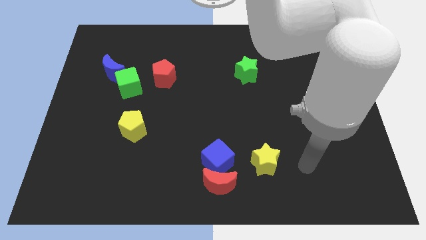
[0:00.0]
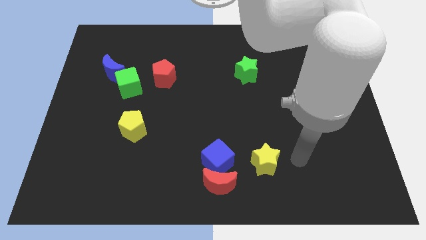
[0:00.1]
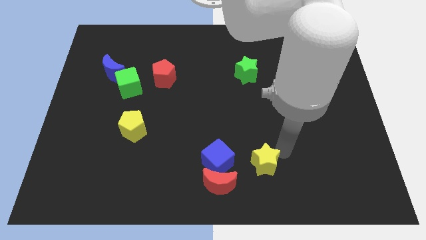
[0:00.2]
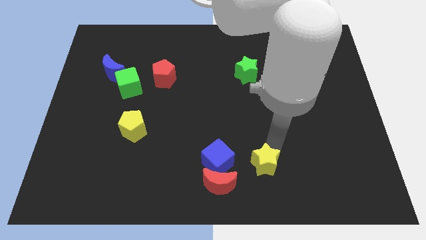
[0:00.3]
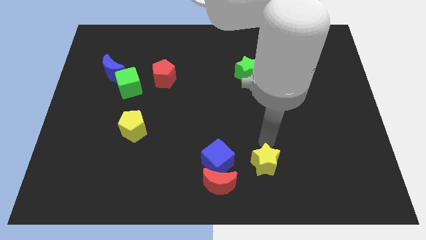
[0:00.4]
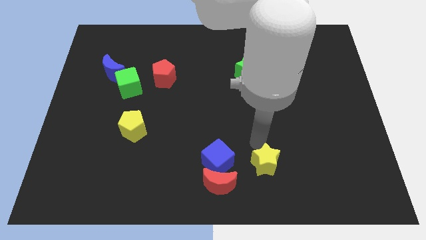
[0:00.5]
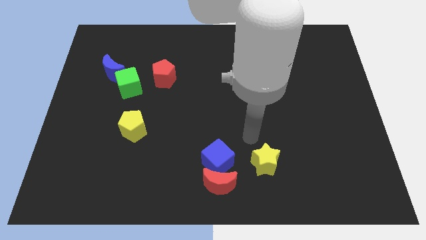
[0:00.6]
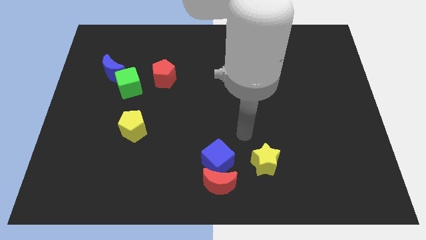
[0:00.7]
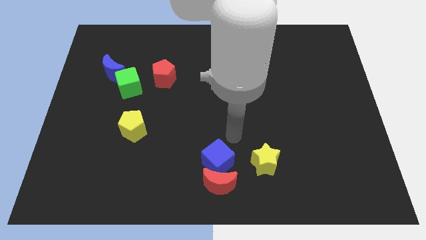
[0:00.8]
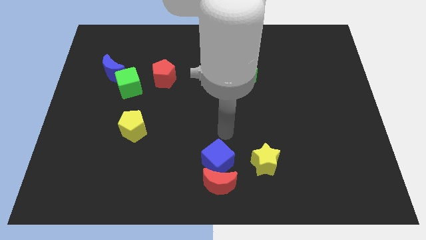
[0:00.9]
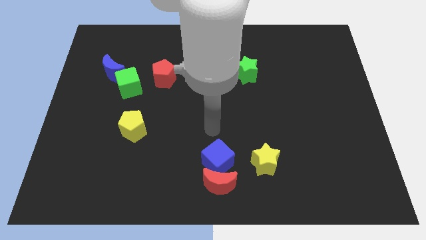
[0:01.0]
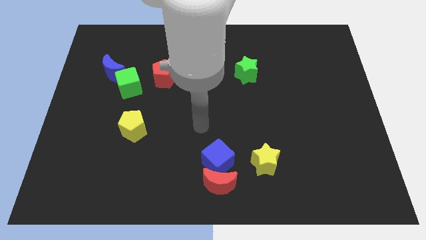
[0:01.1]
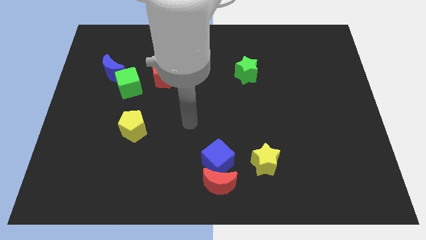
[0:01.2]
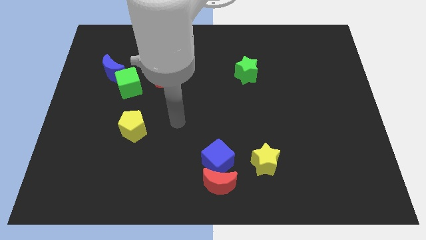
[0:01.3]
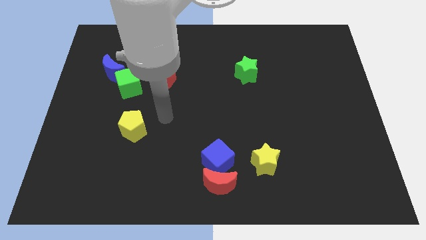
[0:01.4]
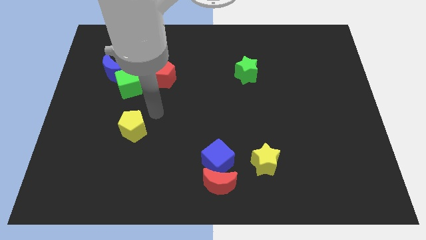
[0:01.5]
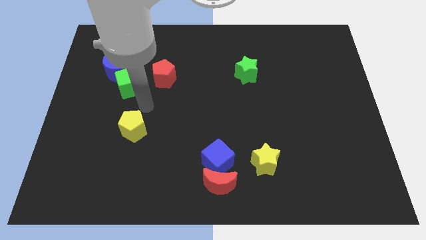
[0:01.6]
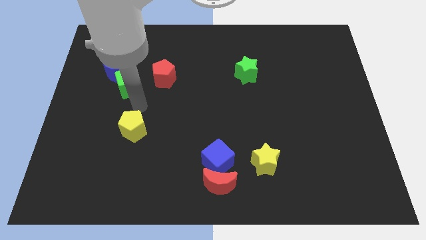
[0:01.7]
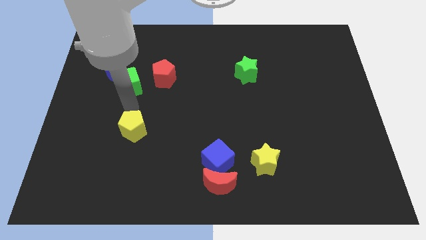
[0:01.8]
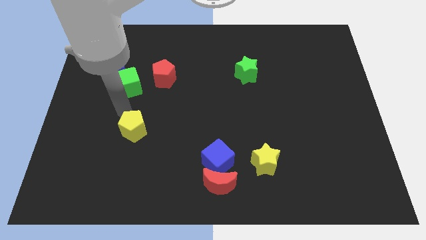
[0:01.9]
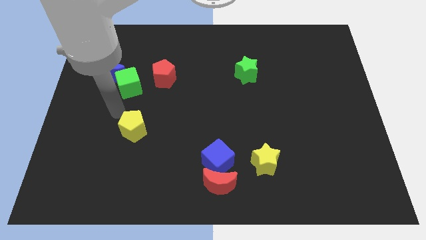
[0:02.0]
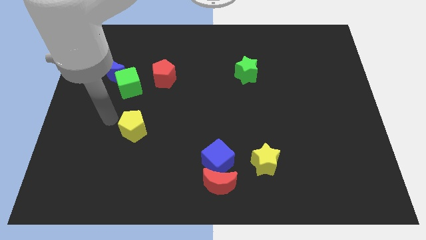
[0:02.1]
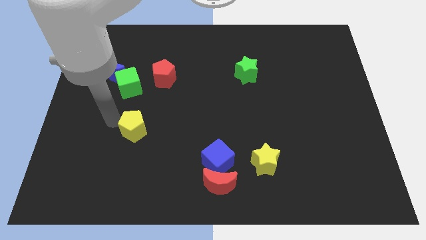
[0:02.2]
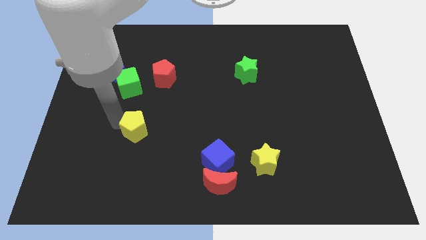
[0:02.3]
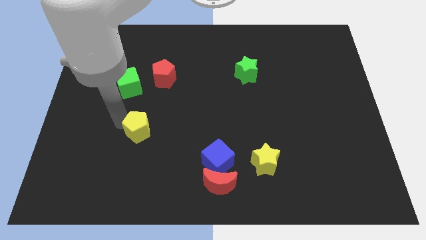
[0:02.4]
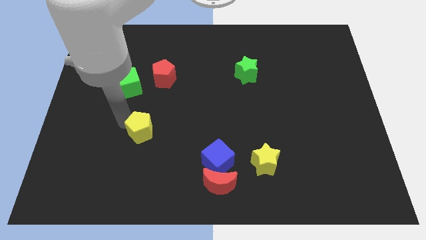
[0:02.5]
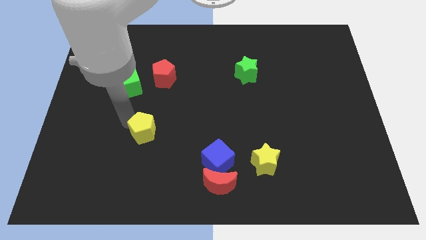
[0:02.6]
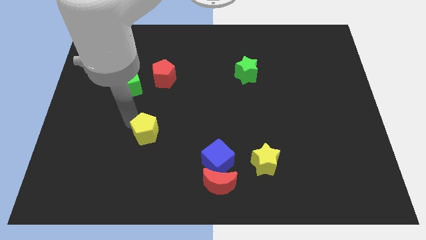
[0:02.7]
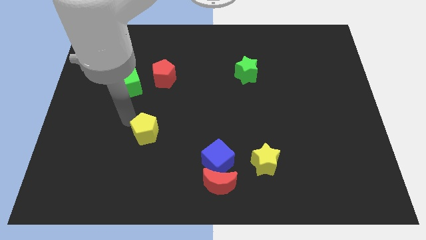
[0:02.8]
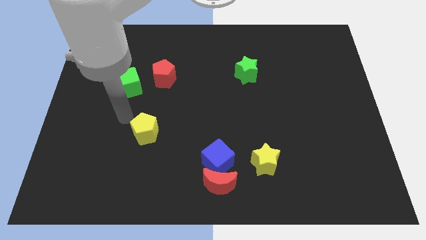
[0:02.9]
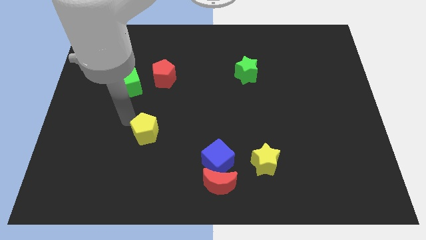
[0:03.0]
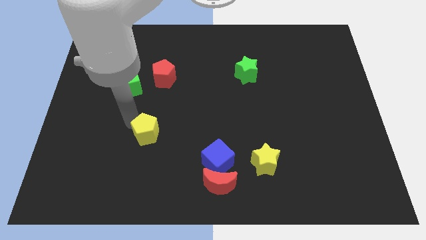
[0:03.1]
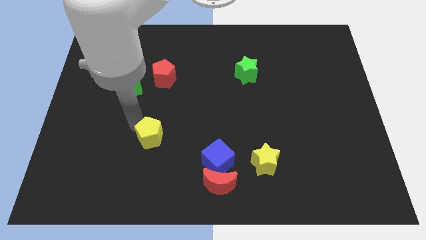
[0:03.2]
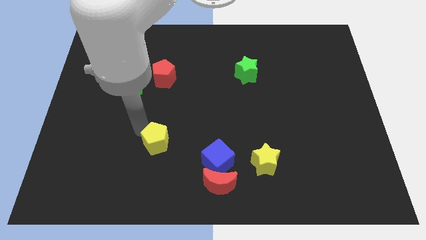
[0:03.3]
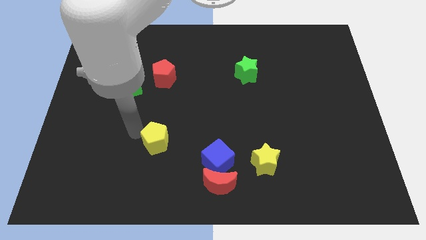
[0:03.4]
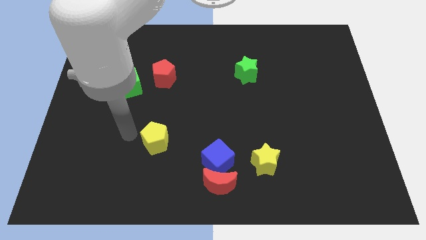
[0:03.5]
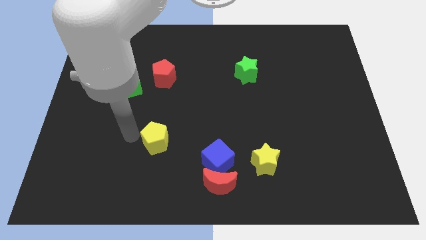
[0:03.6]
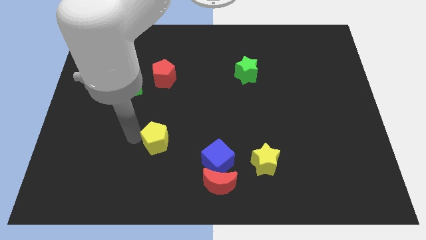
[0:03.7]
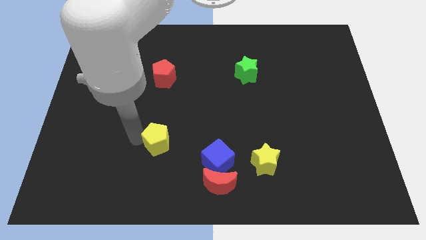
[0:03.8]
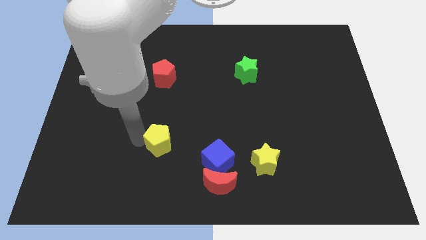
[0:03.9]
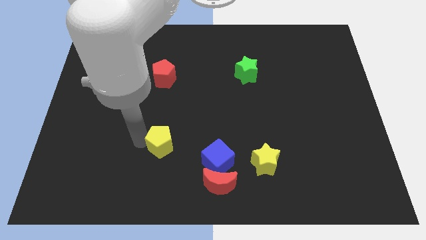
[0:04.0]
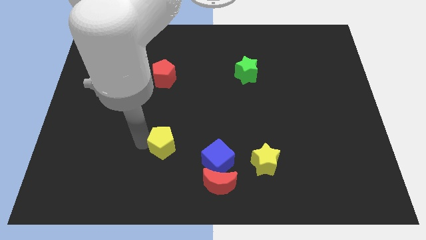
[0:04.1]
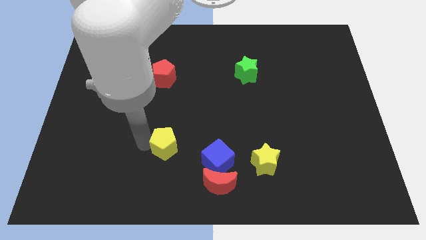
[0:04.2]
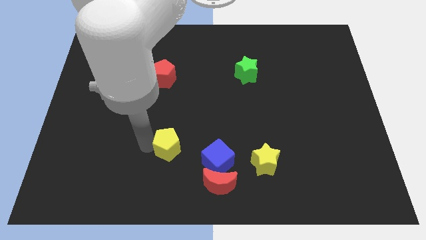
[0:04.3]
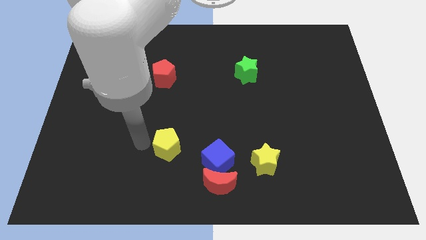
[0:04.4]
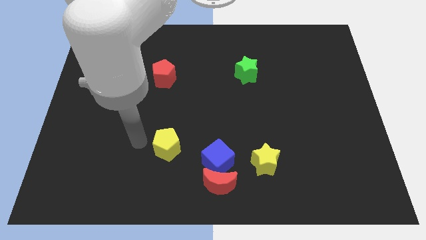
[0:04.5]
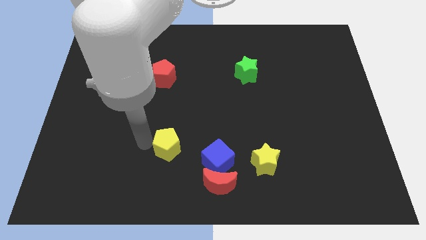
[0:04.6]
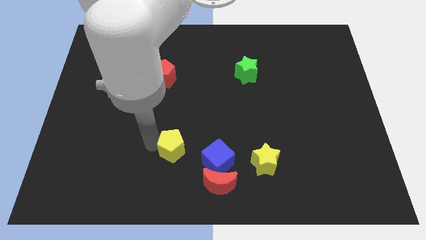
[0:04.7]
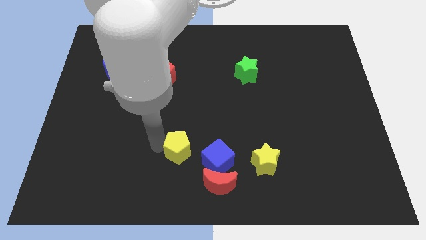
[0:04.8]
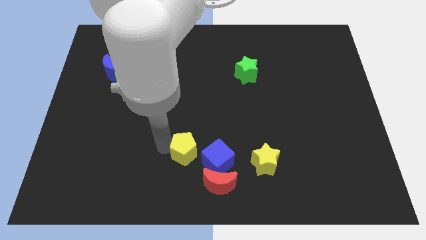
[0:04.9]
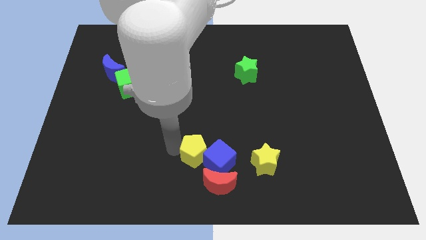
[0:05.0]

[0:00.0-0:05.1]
push the yellow pentagon towards the blue cube

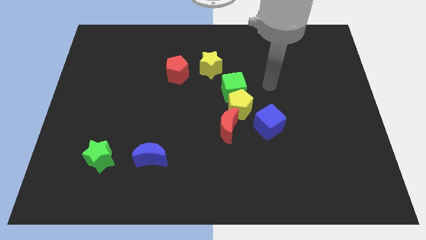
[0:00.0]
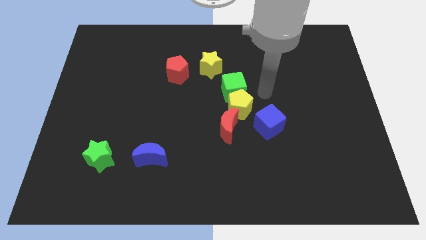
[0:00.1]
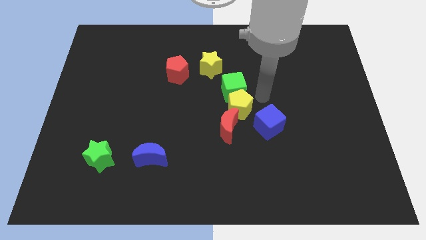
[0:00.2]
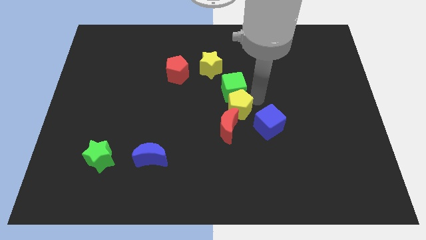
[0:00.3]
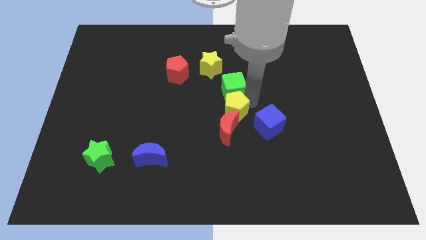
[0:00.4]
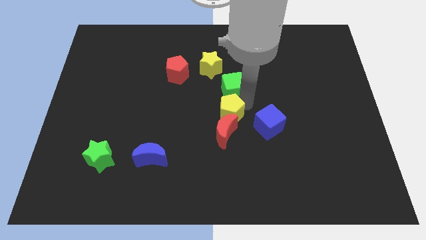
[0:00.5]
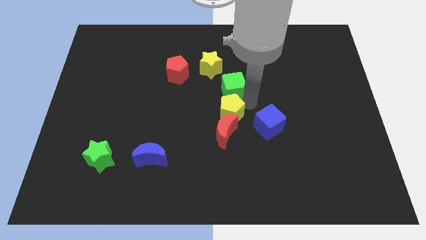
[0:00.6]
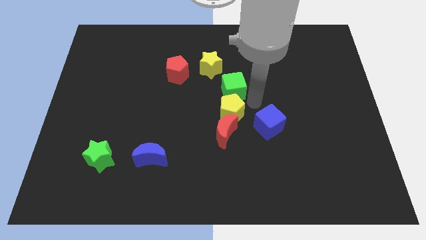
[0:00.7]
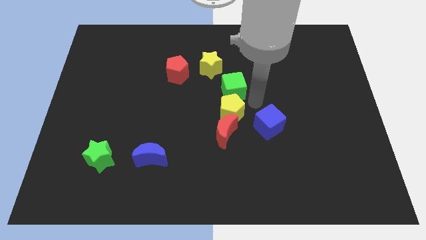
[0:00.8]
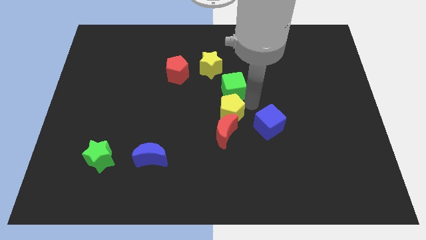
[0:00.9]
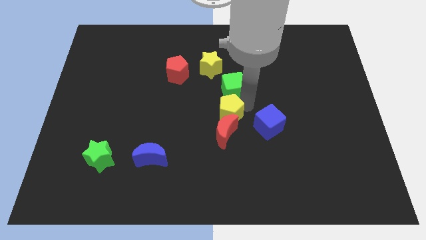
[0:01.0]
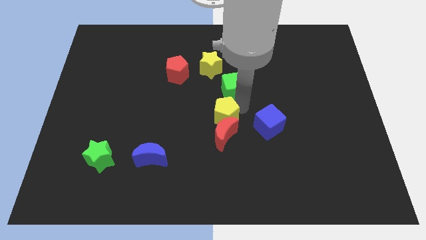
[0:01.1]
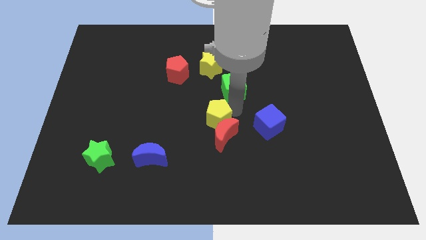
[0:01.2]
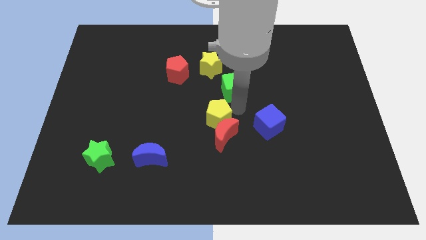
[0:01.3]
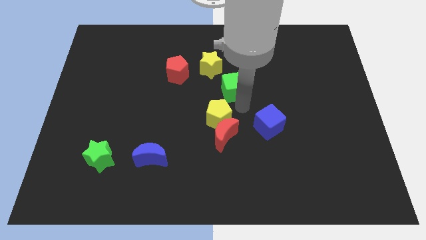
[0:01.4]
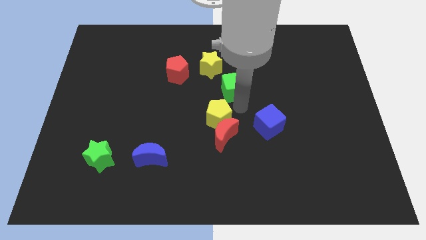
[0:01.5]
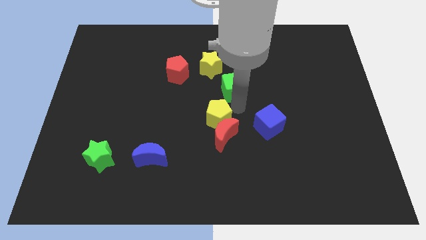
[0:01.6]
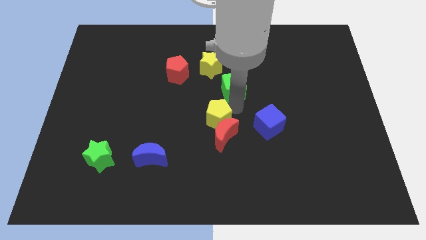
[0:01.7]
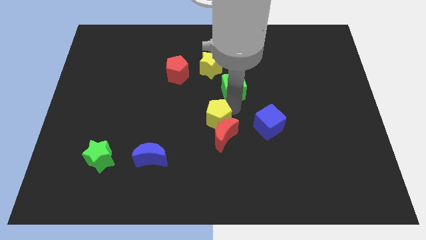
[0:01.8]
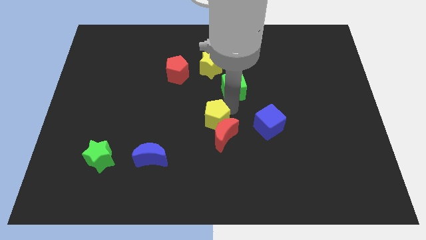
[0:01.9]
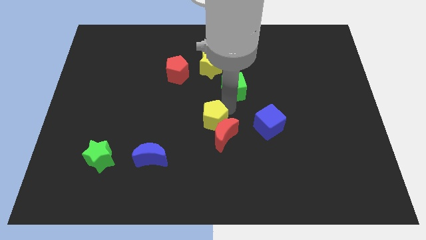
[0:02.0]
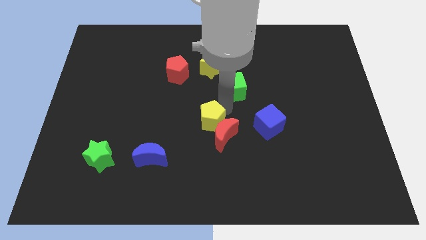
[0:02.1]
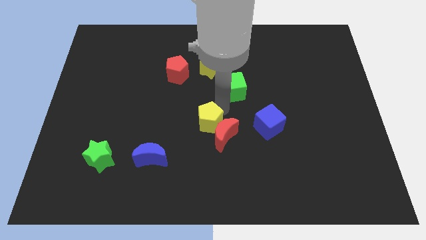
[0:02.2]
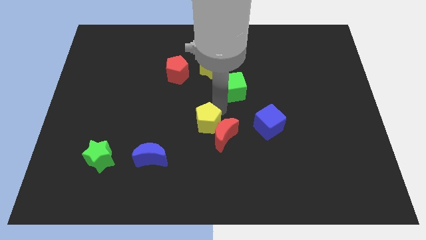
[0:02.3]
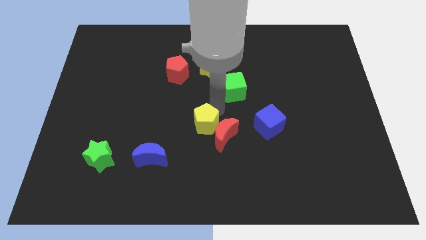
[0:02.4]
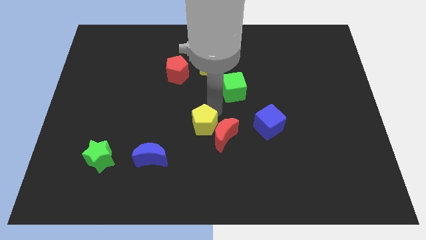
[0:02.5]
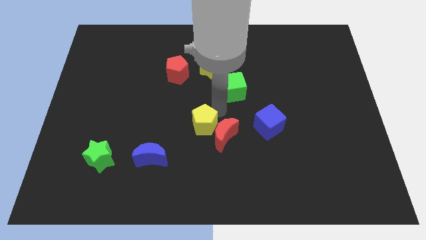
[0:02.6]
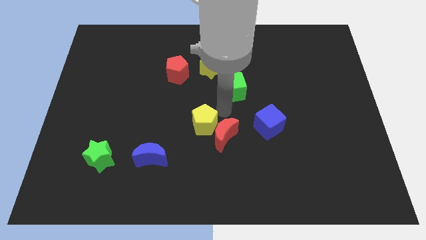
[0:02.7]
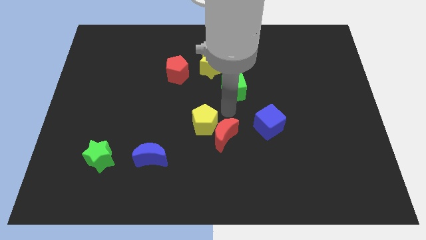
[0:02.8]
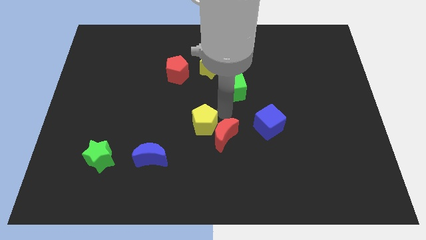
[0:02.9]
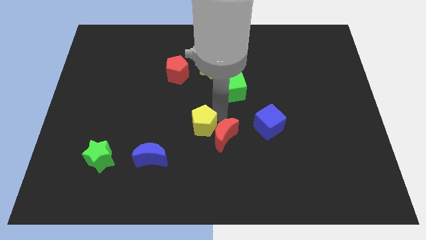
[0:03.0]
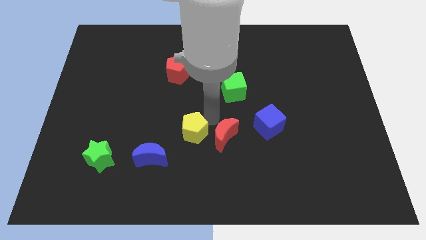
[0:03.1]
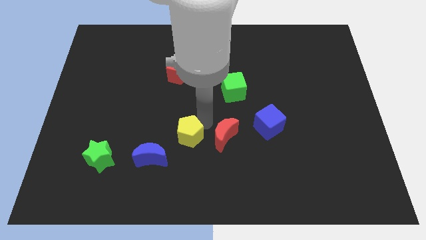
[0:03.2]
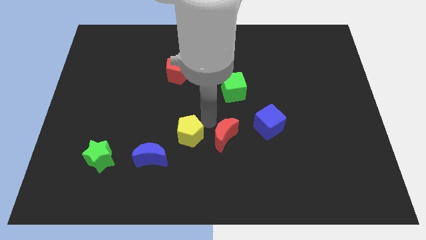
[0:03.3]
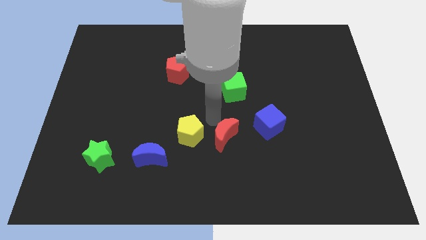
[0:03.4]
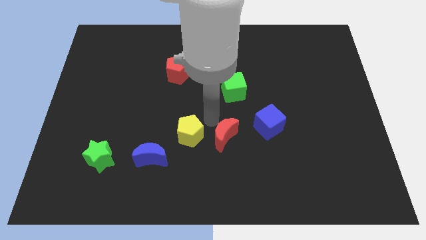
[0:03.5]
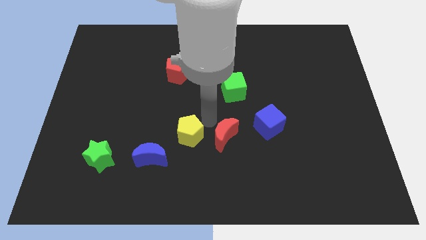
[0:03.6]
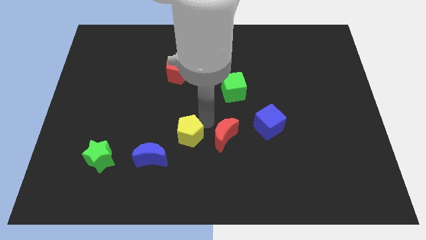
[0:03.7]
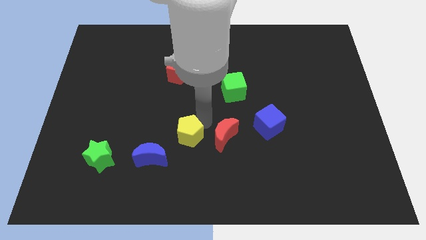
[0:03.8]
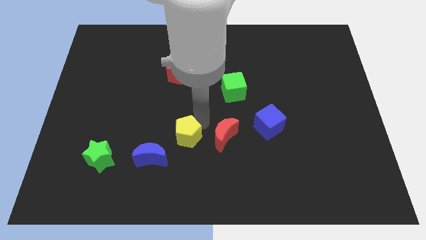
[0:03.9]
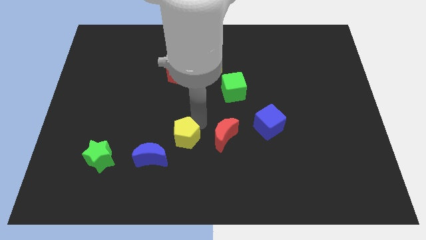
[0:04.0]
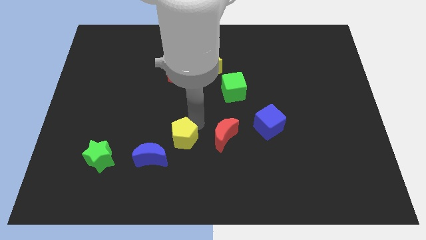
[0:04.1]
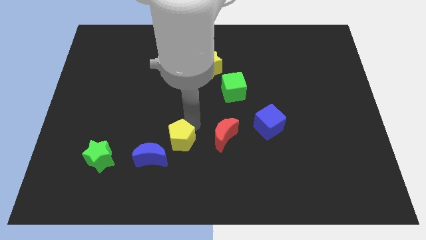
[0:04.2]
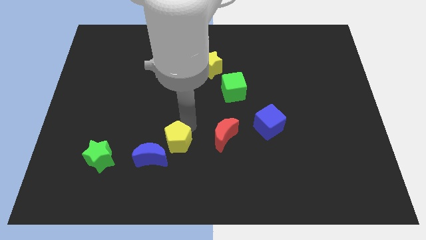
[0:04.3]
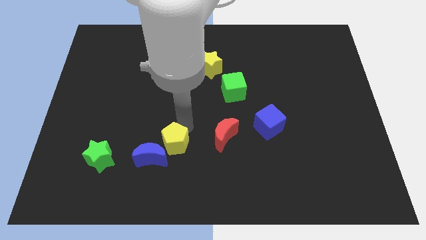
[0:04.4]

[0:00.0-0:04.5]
put the yellow pentagon close to the blue moon
